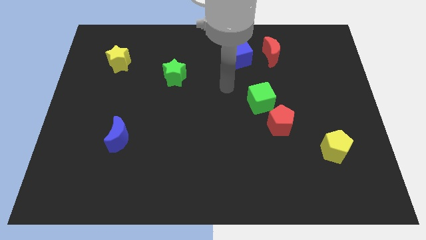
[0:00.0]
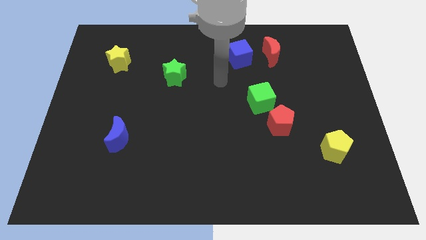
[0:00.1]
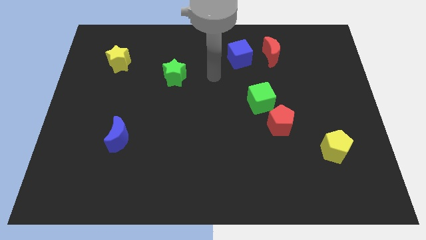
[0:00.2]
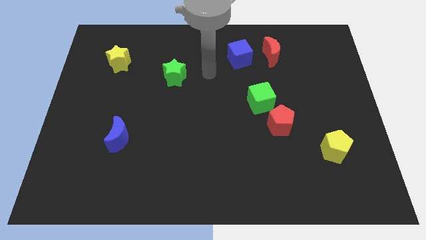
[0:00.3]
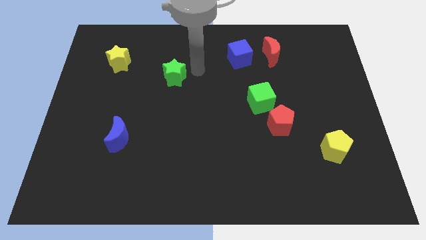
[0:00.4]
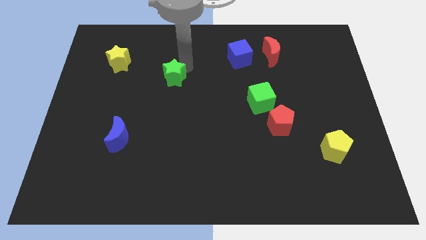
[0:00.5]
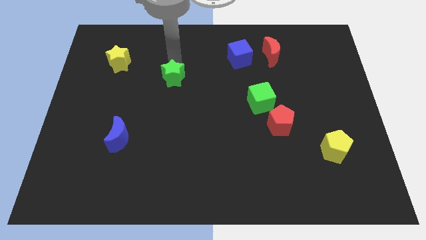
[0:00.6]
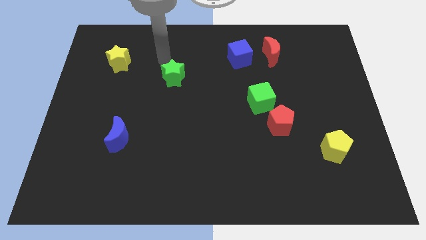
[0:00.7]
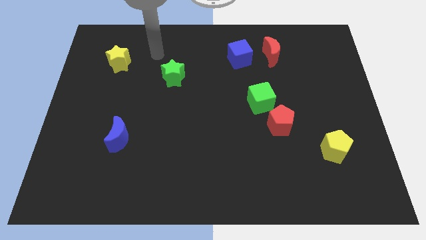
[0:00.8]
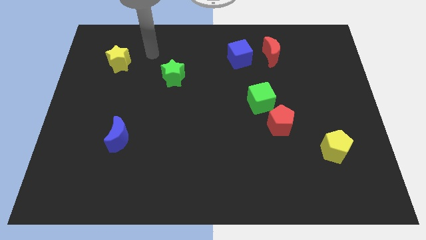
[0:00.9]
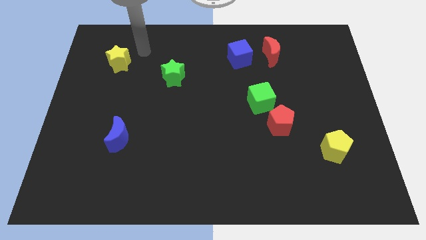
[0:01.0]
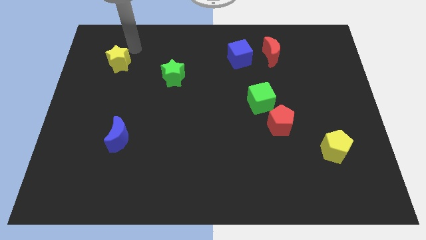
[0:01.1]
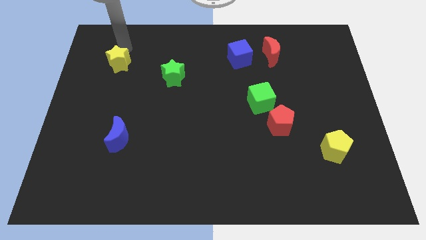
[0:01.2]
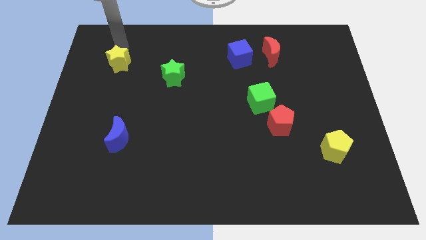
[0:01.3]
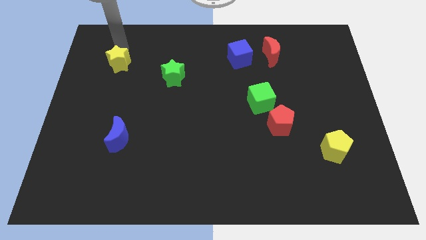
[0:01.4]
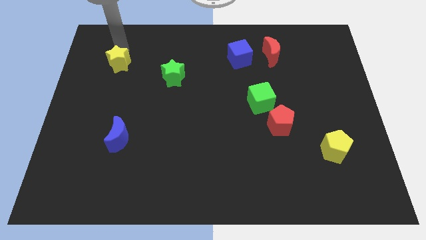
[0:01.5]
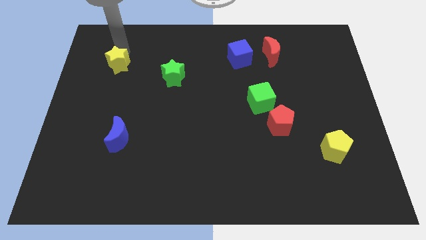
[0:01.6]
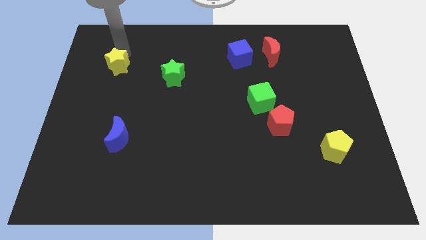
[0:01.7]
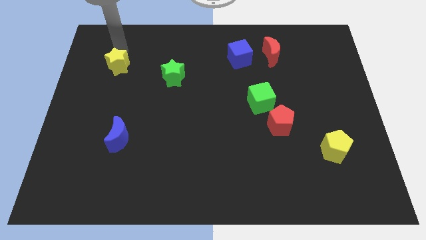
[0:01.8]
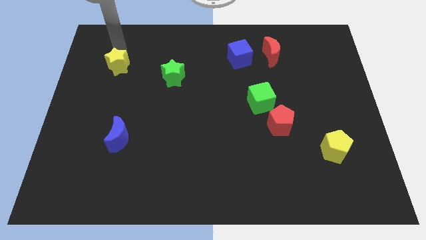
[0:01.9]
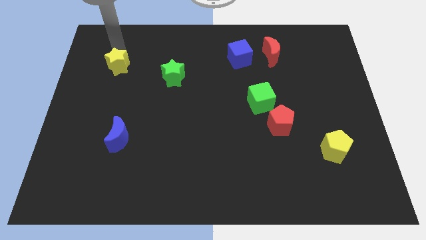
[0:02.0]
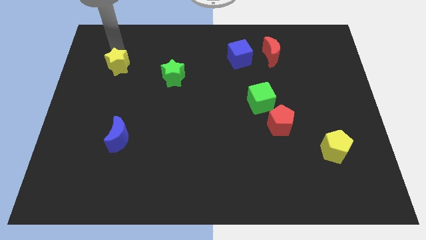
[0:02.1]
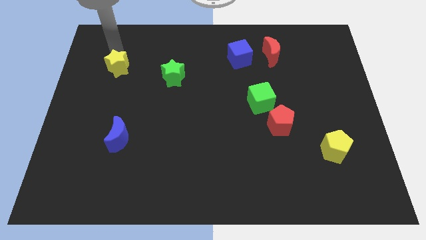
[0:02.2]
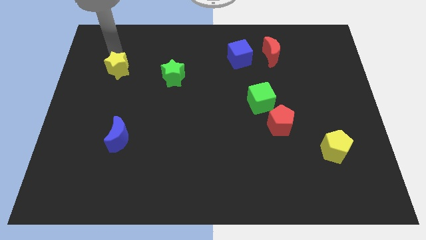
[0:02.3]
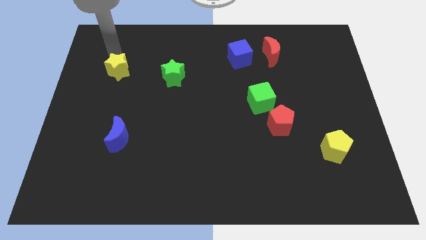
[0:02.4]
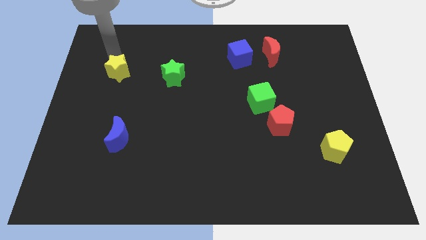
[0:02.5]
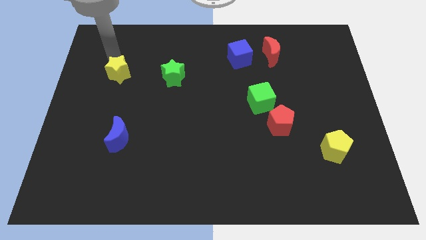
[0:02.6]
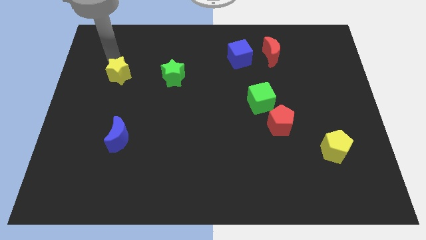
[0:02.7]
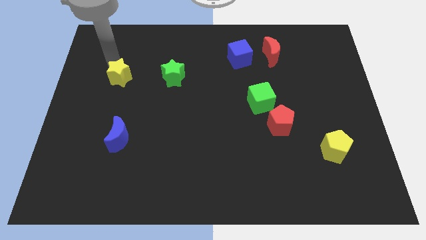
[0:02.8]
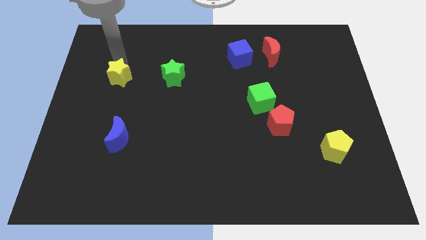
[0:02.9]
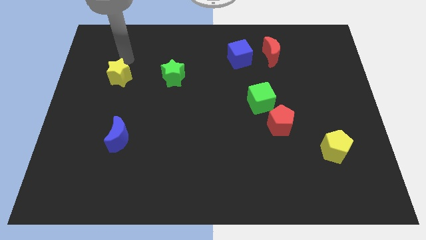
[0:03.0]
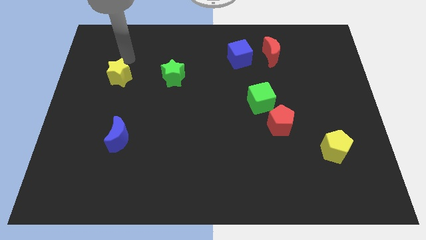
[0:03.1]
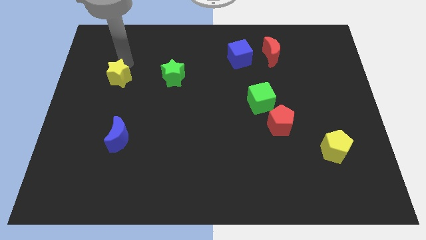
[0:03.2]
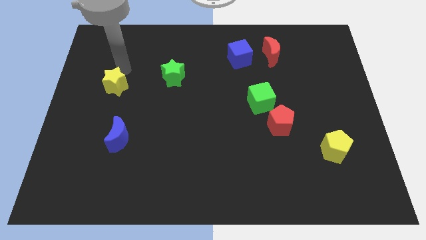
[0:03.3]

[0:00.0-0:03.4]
move the yellow star down a little

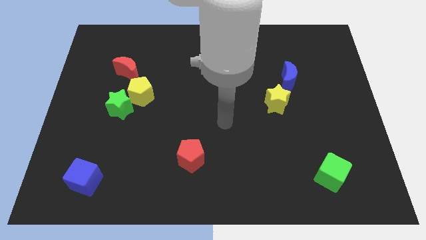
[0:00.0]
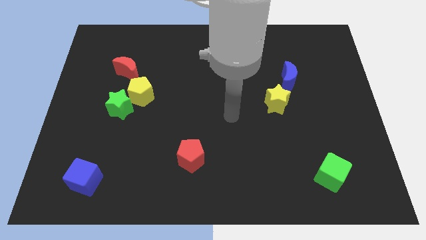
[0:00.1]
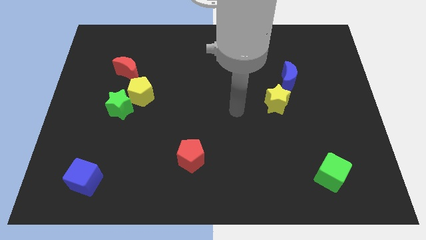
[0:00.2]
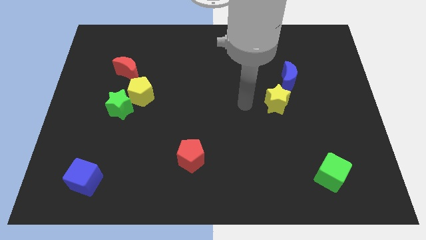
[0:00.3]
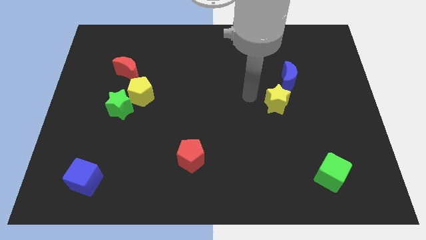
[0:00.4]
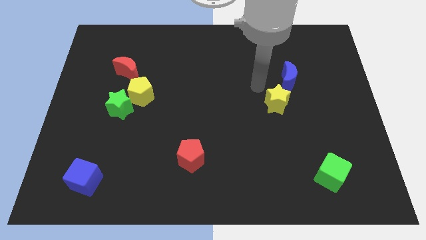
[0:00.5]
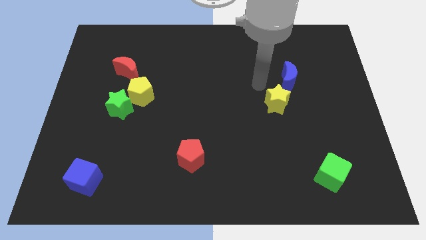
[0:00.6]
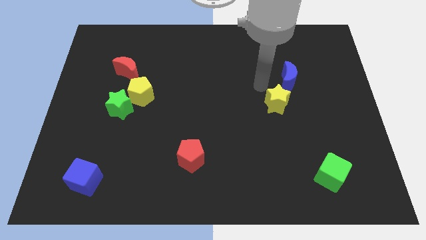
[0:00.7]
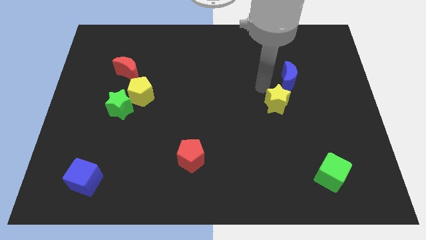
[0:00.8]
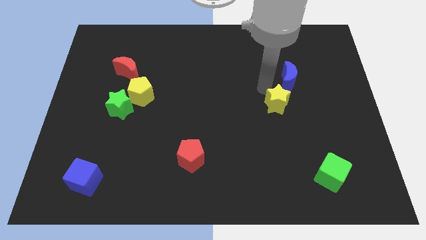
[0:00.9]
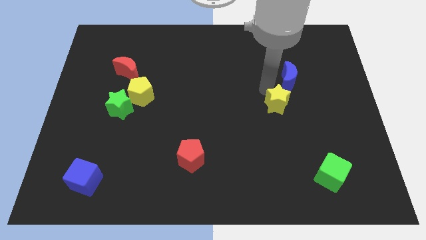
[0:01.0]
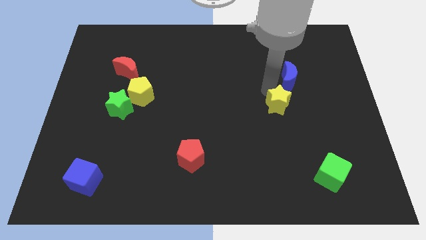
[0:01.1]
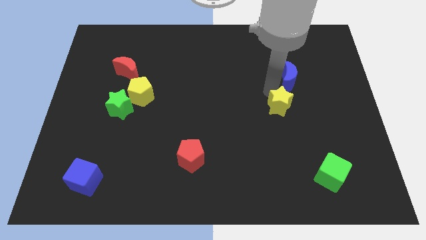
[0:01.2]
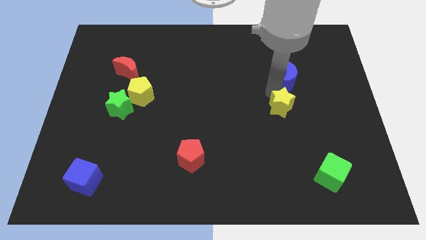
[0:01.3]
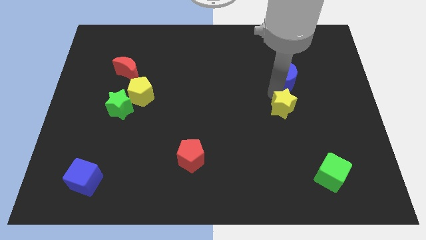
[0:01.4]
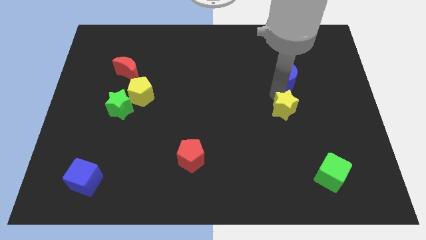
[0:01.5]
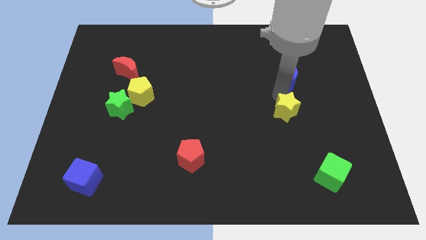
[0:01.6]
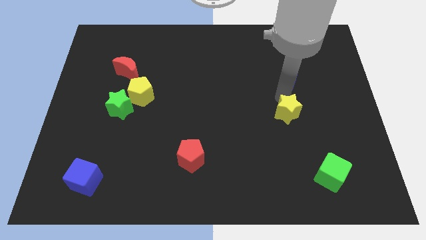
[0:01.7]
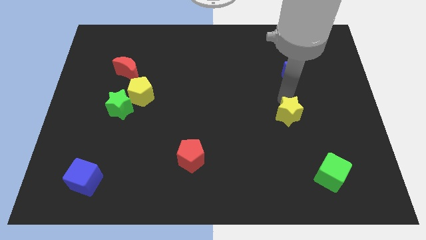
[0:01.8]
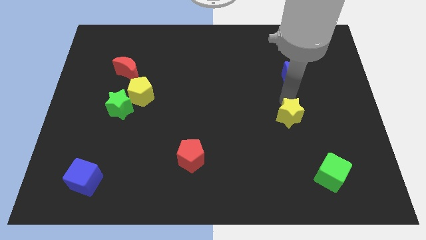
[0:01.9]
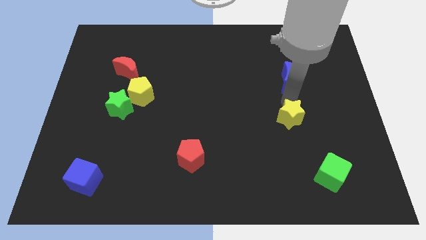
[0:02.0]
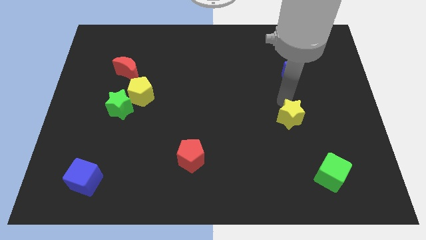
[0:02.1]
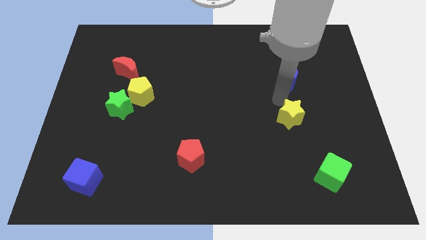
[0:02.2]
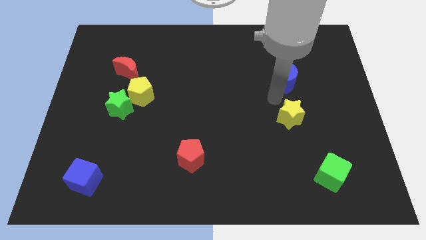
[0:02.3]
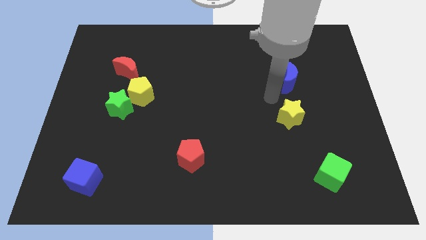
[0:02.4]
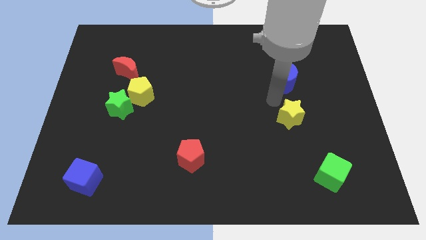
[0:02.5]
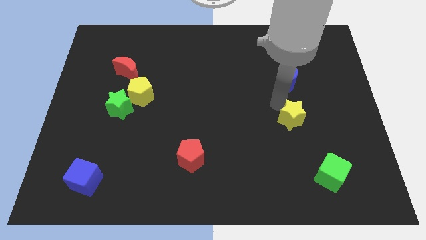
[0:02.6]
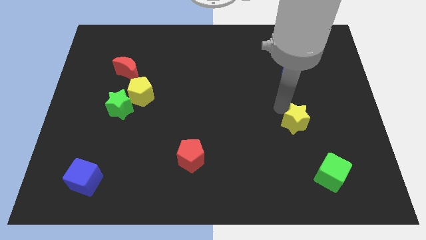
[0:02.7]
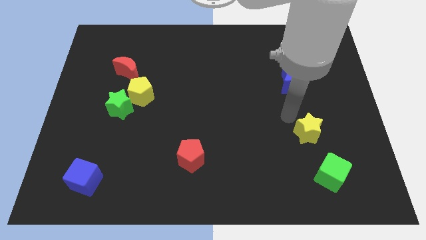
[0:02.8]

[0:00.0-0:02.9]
slightly push the yellow star diagonally downwards and right

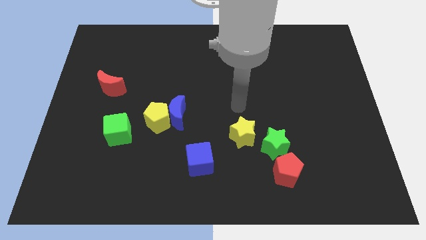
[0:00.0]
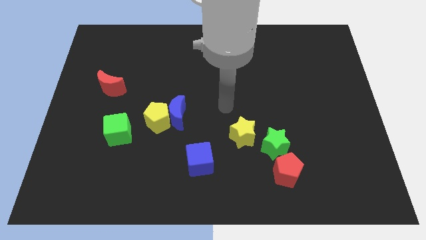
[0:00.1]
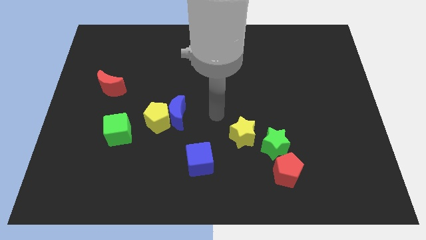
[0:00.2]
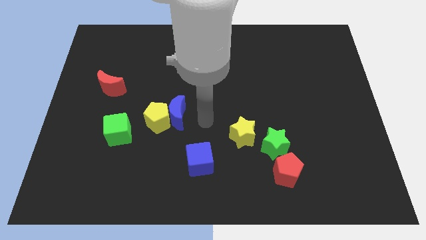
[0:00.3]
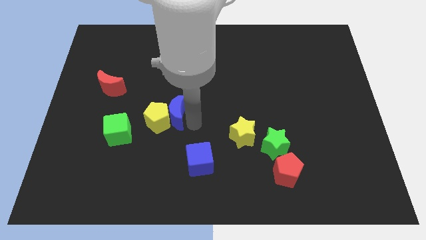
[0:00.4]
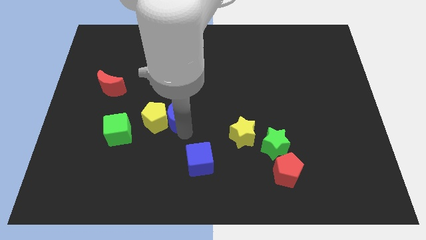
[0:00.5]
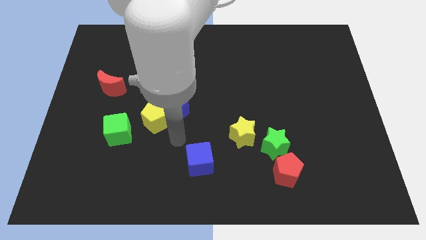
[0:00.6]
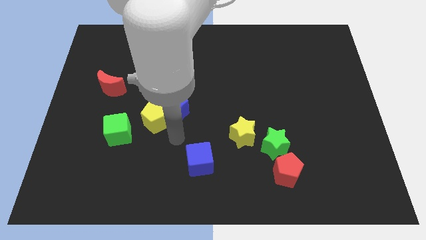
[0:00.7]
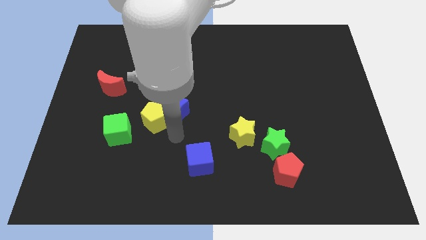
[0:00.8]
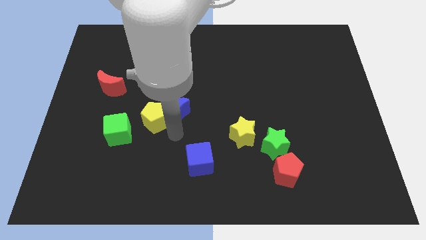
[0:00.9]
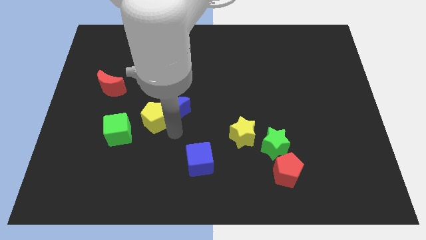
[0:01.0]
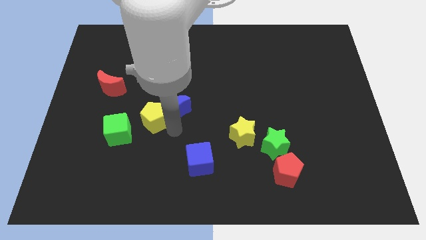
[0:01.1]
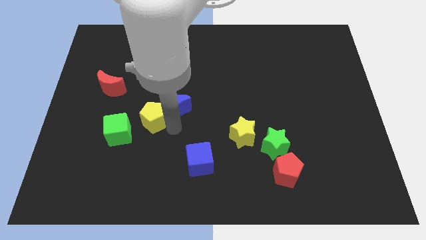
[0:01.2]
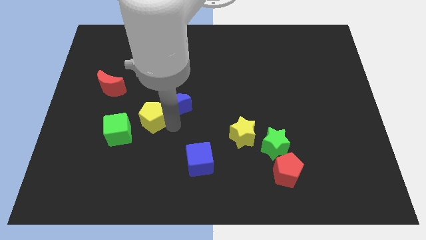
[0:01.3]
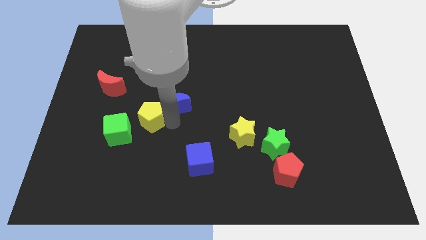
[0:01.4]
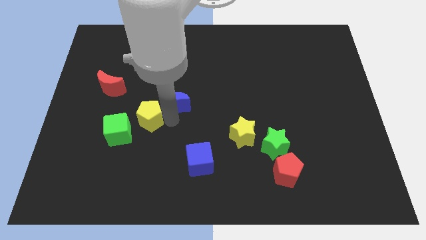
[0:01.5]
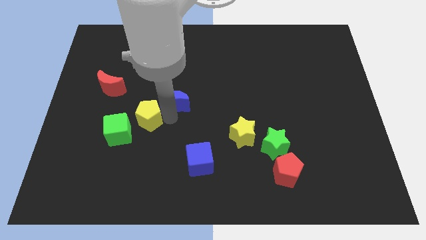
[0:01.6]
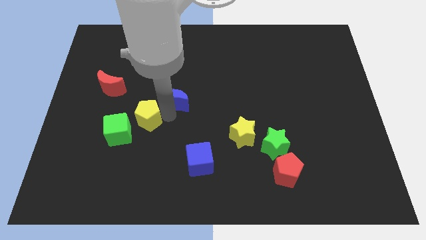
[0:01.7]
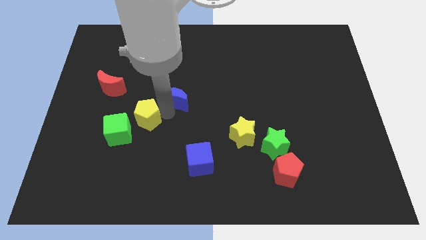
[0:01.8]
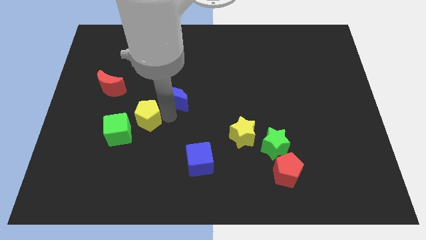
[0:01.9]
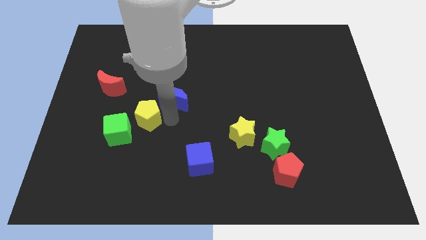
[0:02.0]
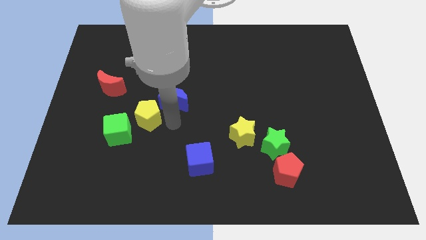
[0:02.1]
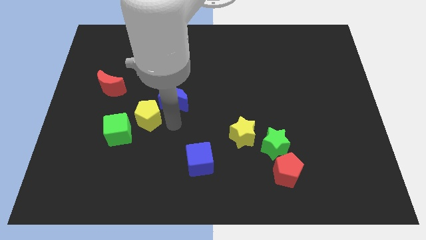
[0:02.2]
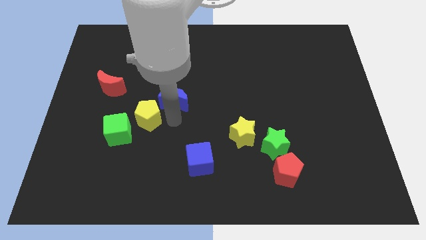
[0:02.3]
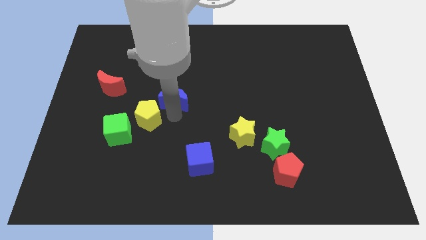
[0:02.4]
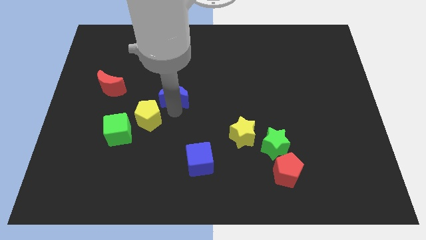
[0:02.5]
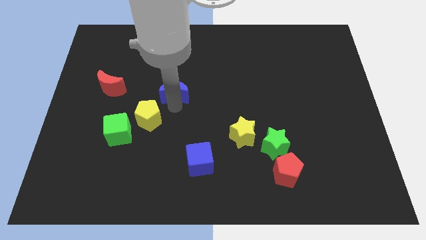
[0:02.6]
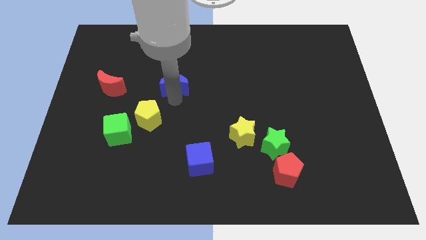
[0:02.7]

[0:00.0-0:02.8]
slightly slide the blue moon up
